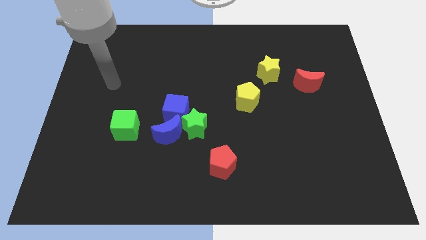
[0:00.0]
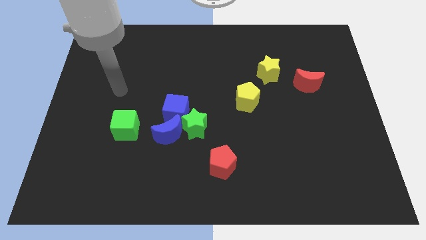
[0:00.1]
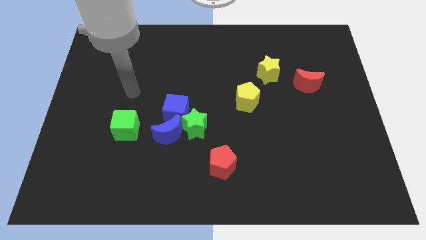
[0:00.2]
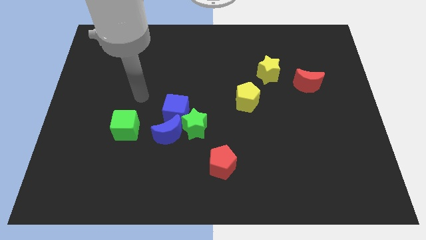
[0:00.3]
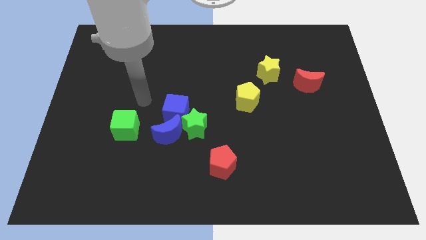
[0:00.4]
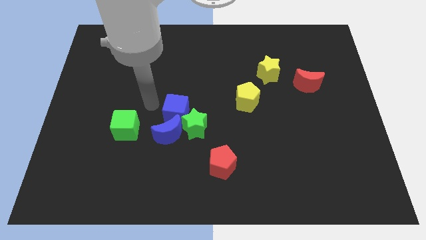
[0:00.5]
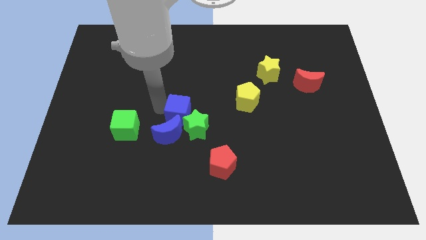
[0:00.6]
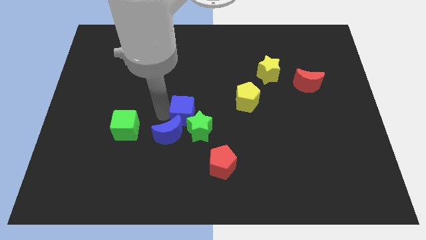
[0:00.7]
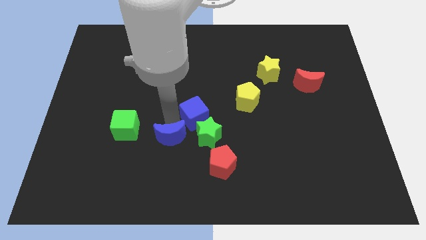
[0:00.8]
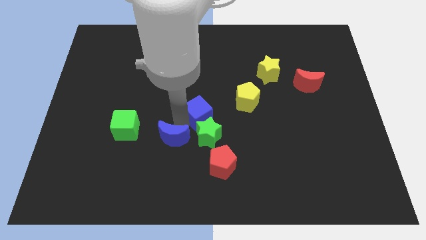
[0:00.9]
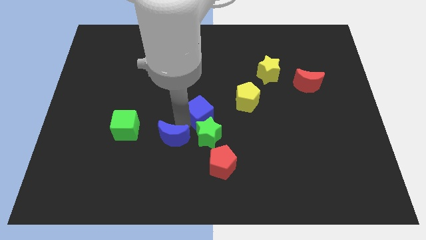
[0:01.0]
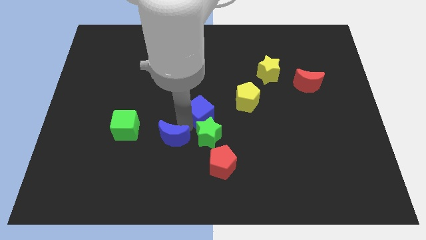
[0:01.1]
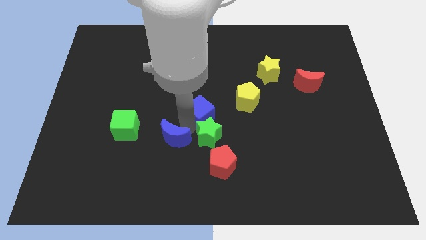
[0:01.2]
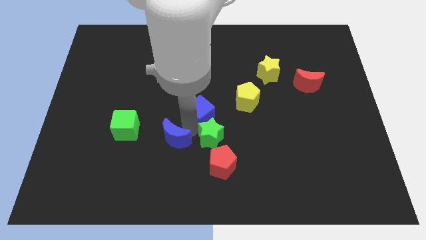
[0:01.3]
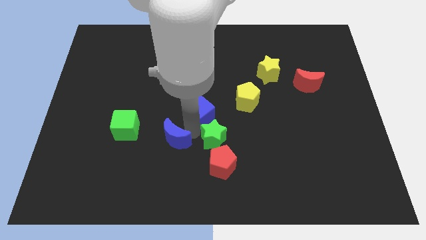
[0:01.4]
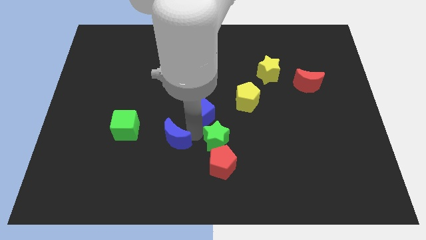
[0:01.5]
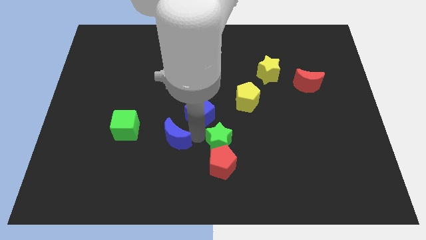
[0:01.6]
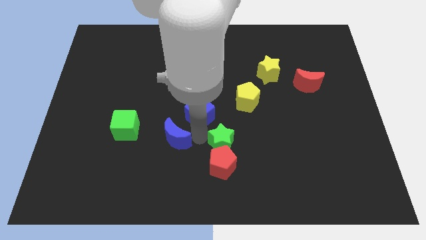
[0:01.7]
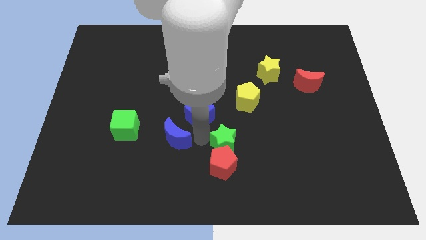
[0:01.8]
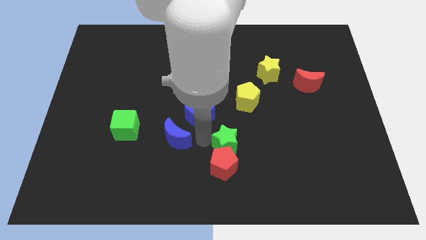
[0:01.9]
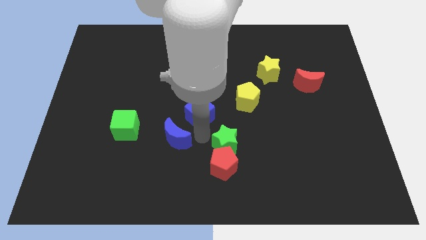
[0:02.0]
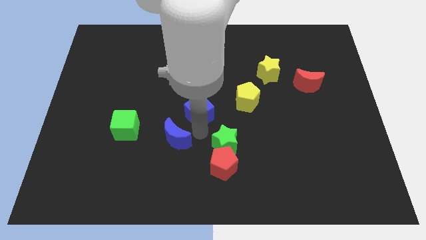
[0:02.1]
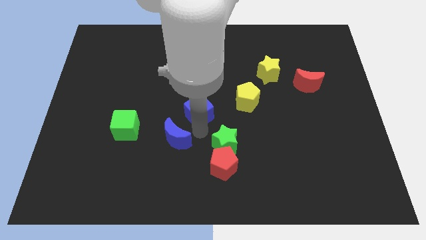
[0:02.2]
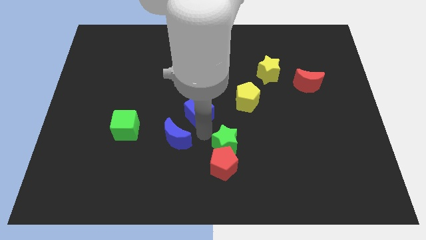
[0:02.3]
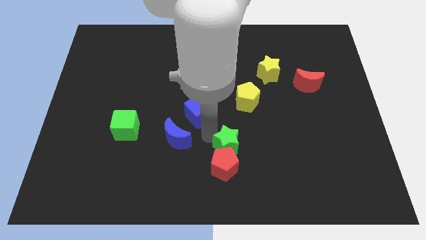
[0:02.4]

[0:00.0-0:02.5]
move the green star away from the blue moon and blue cube

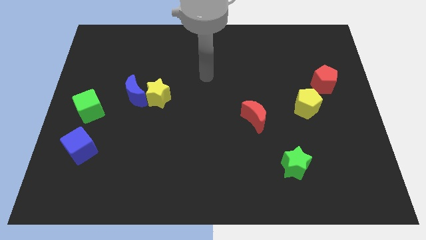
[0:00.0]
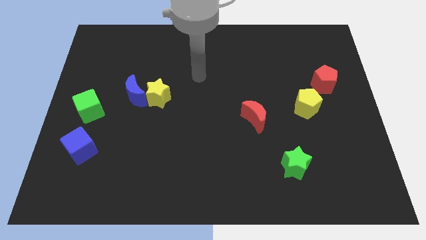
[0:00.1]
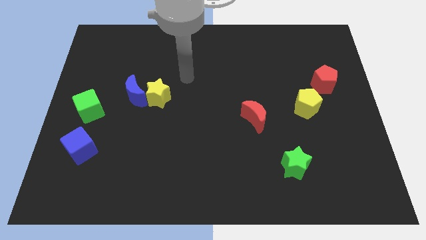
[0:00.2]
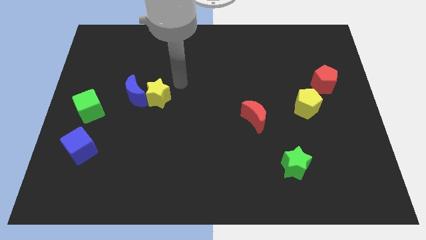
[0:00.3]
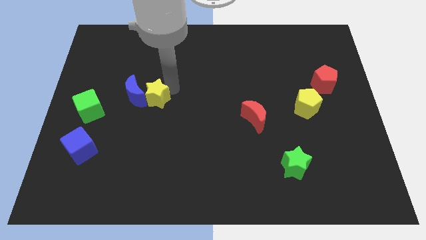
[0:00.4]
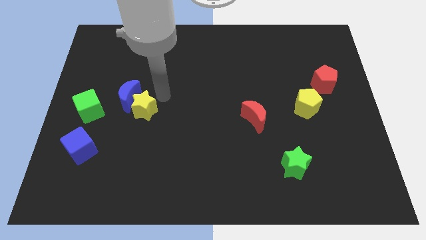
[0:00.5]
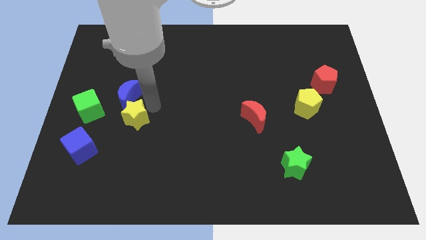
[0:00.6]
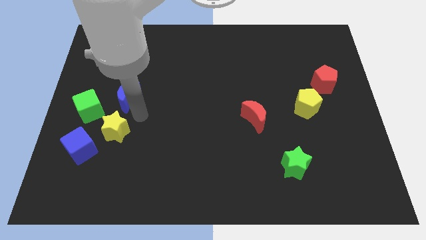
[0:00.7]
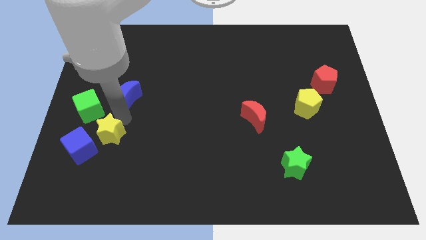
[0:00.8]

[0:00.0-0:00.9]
separate the blue moon from the yellow star

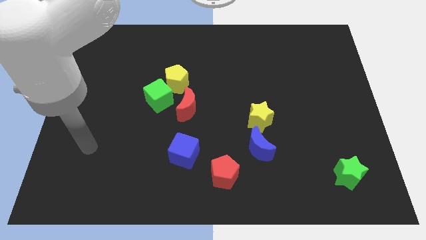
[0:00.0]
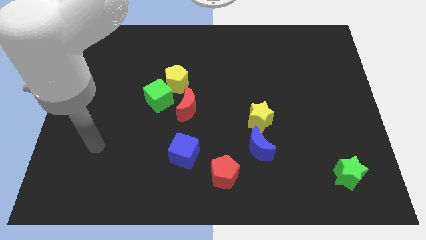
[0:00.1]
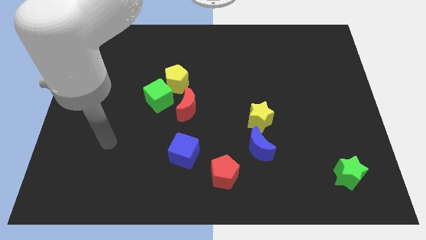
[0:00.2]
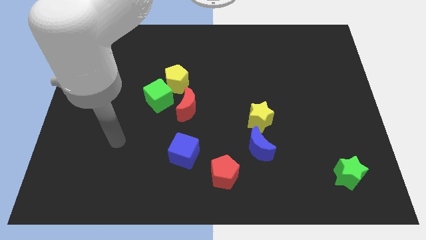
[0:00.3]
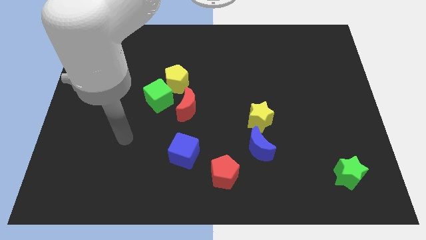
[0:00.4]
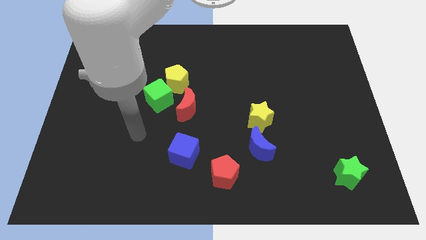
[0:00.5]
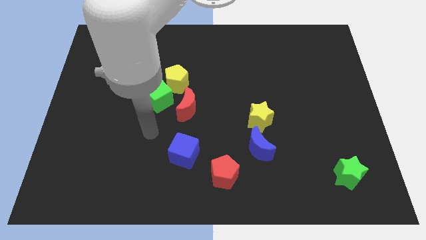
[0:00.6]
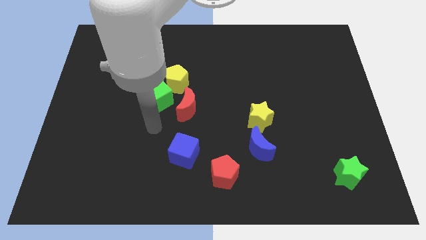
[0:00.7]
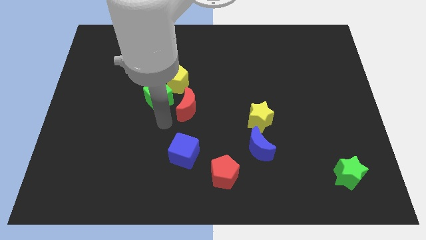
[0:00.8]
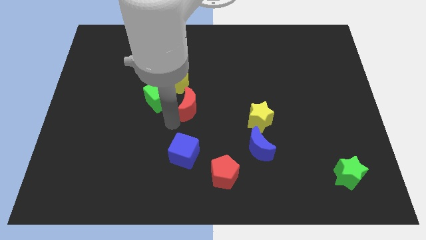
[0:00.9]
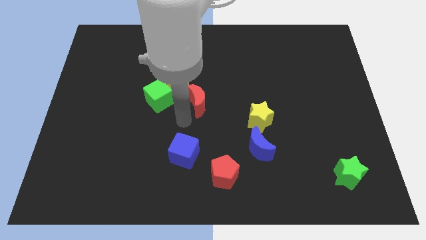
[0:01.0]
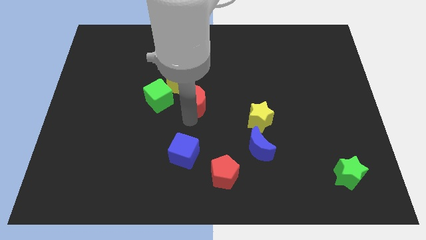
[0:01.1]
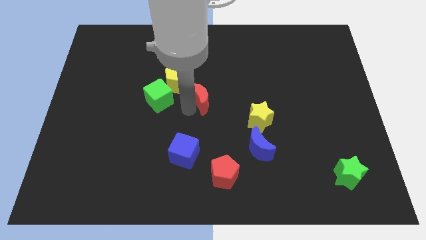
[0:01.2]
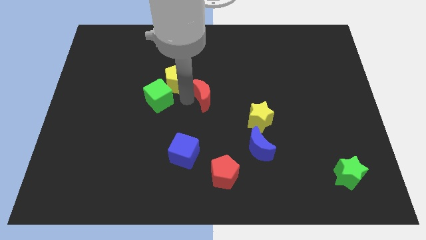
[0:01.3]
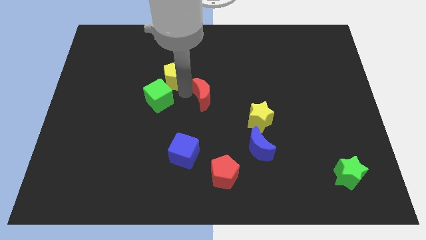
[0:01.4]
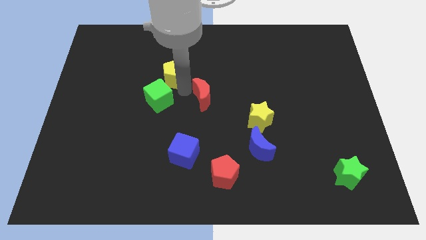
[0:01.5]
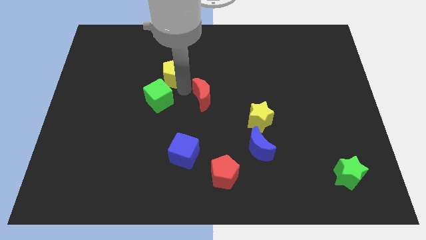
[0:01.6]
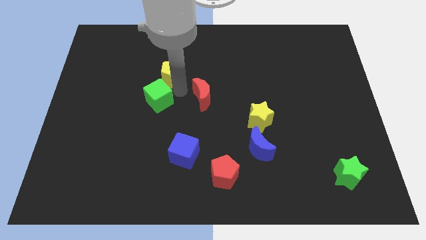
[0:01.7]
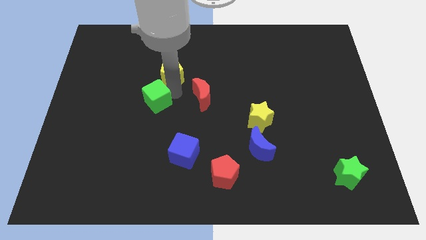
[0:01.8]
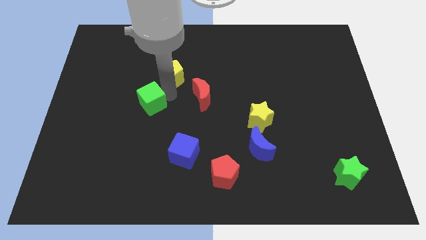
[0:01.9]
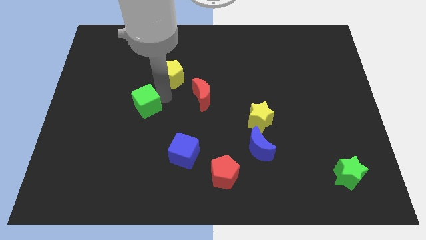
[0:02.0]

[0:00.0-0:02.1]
separate the green cube from the yellow pentagon and red moon

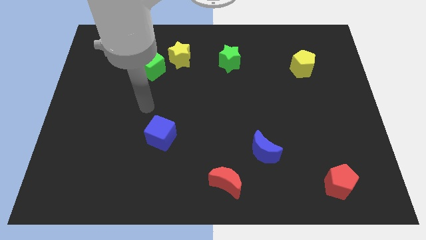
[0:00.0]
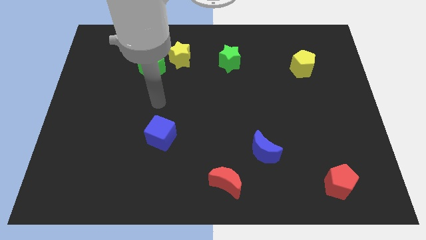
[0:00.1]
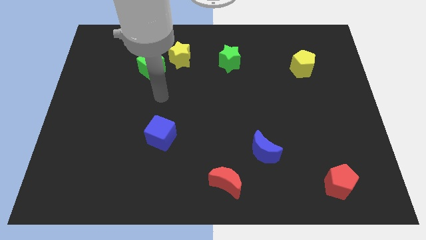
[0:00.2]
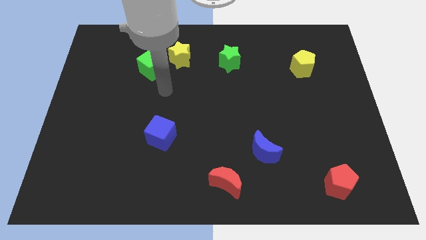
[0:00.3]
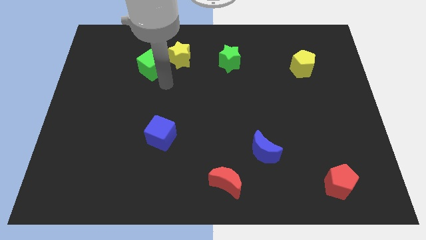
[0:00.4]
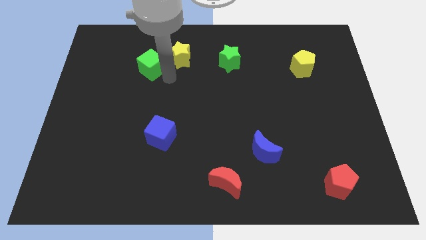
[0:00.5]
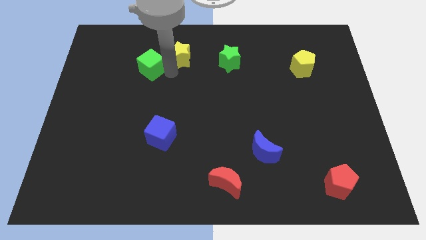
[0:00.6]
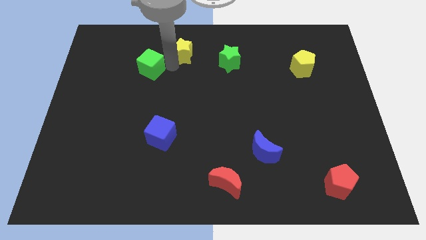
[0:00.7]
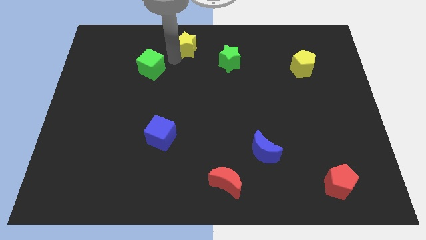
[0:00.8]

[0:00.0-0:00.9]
pull the green cube apart from the yellow star

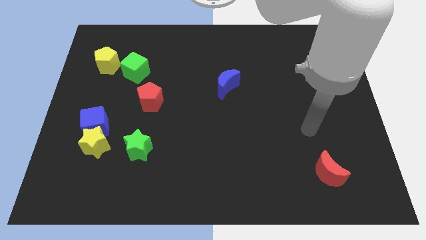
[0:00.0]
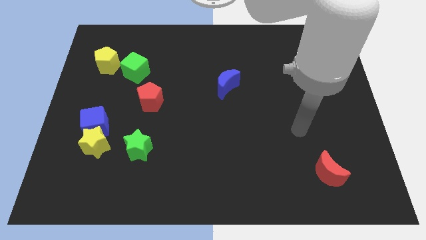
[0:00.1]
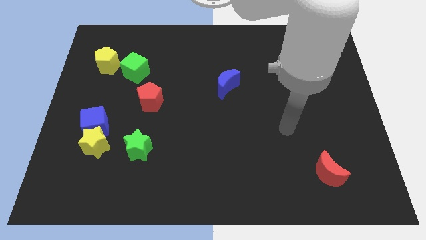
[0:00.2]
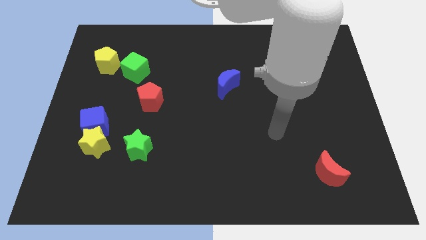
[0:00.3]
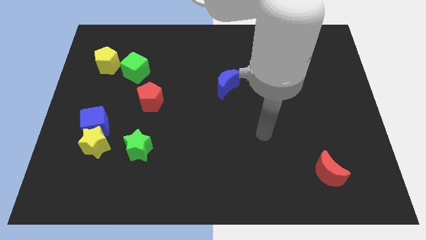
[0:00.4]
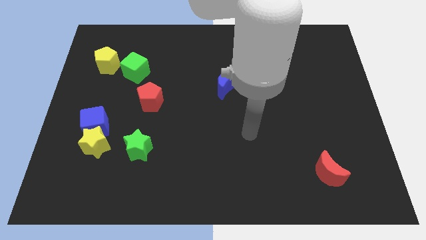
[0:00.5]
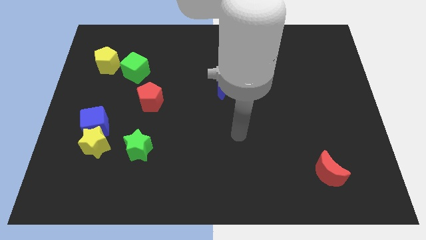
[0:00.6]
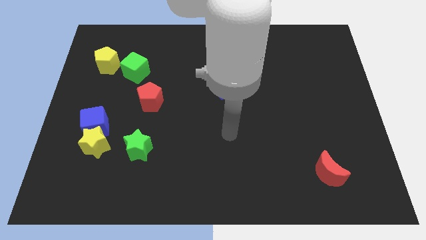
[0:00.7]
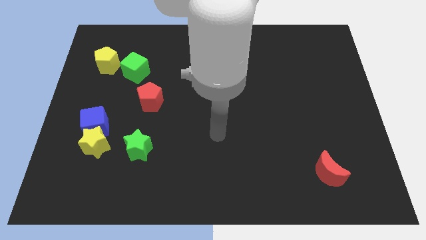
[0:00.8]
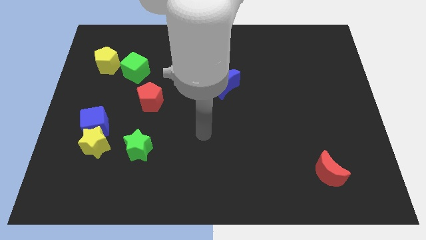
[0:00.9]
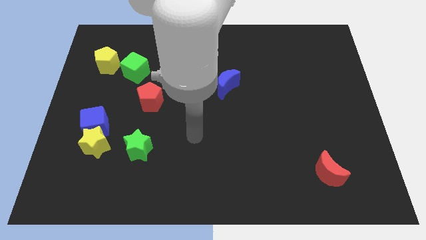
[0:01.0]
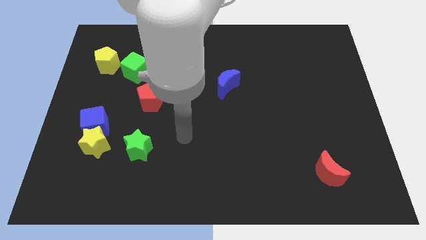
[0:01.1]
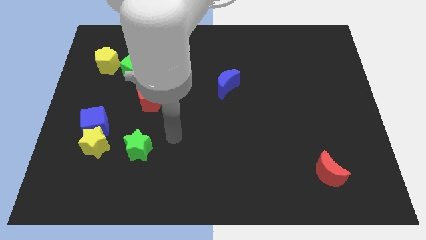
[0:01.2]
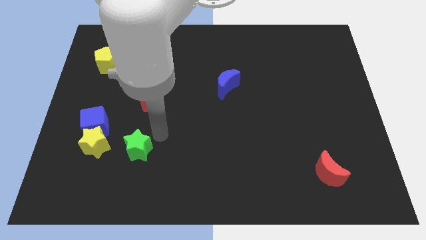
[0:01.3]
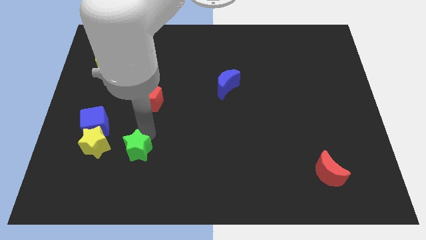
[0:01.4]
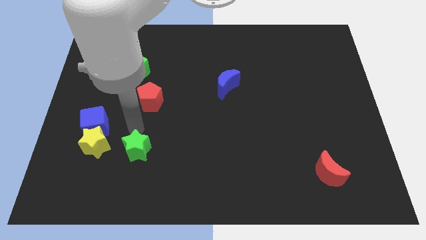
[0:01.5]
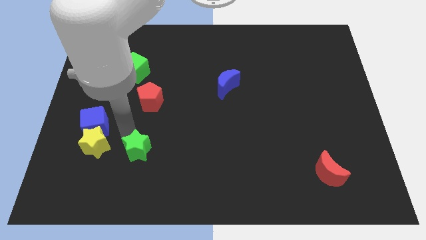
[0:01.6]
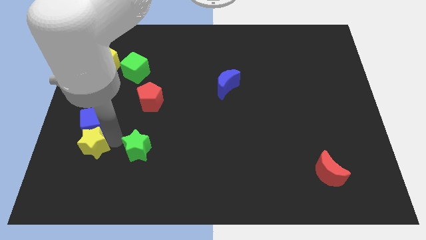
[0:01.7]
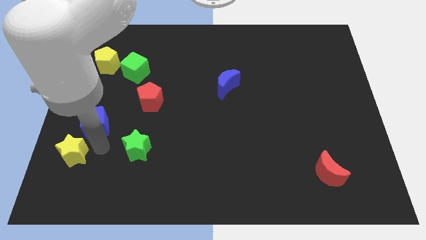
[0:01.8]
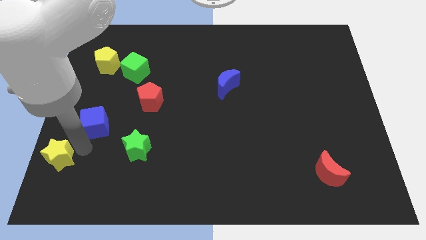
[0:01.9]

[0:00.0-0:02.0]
pull the blue cube apart from the yellow star

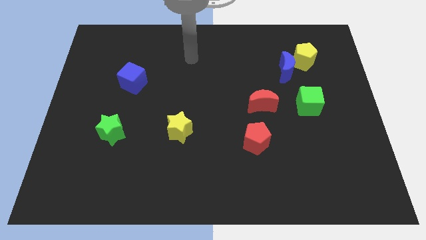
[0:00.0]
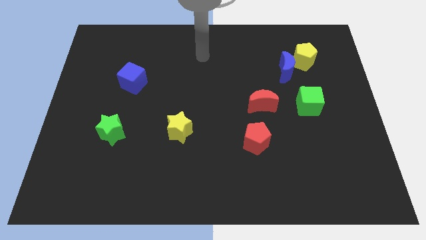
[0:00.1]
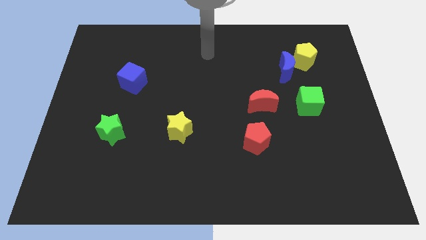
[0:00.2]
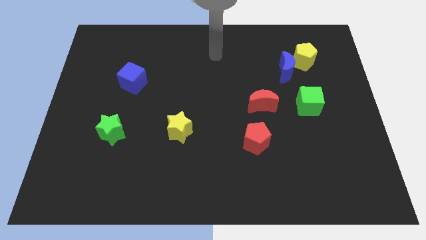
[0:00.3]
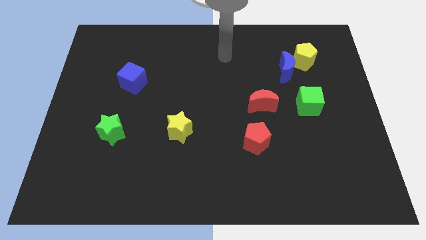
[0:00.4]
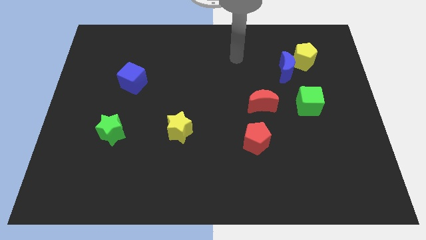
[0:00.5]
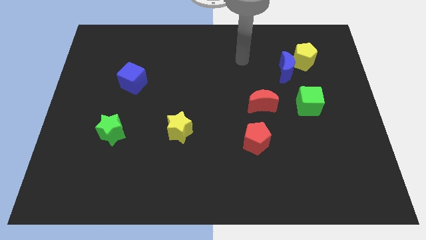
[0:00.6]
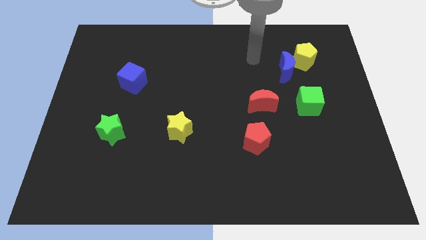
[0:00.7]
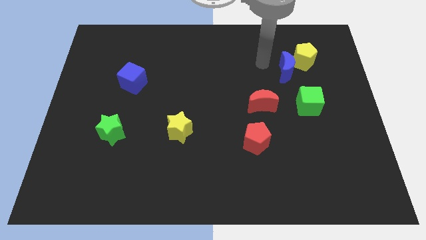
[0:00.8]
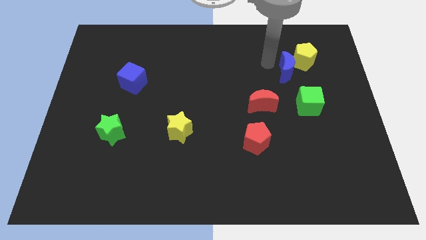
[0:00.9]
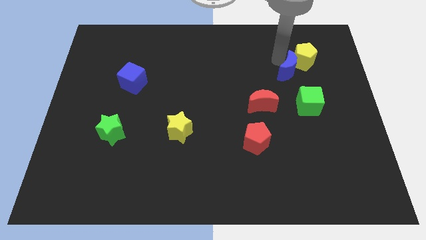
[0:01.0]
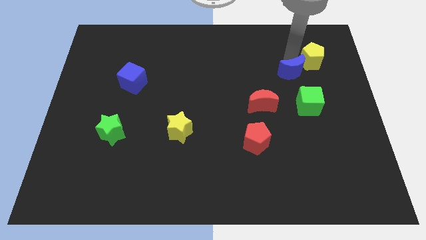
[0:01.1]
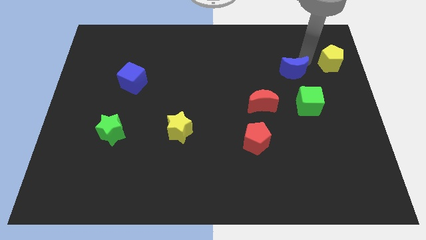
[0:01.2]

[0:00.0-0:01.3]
pull the blue moon apart from the yellow pentagon
